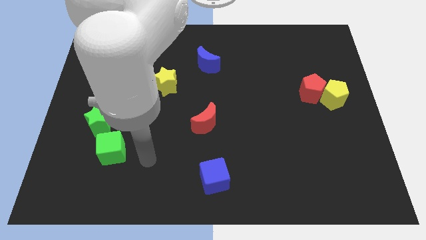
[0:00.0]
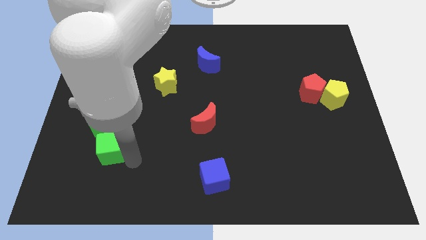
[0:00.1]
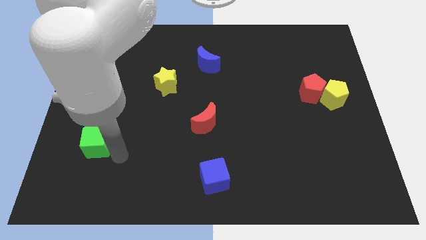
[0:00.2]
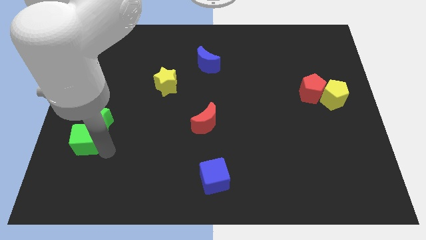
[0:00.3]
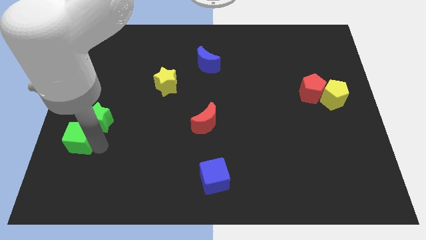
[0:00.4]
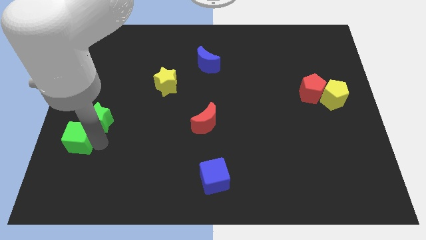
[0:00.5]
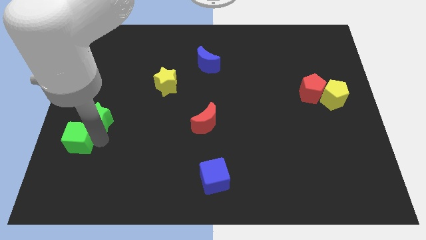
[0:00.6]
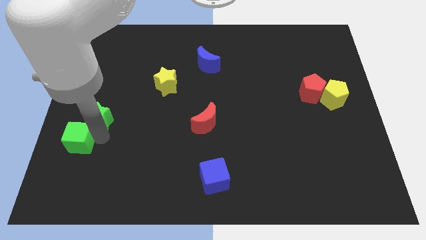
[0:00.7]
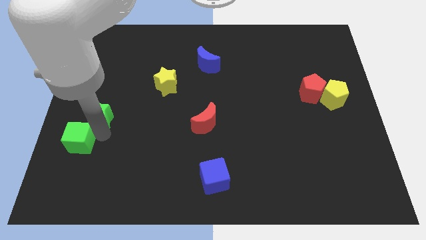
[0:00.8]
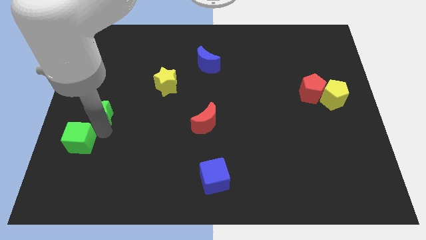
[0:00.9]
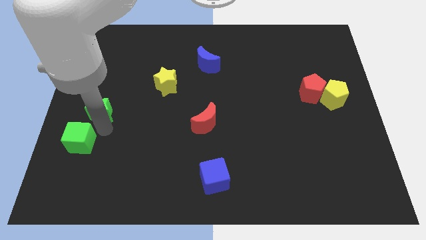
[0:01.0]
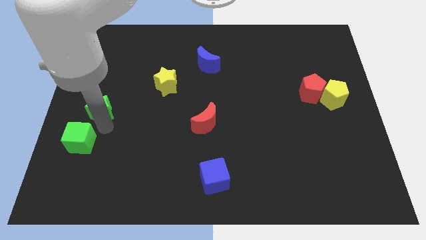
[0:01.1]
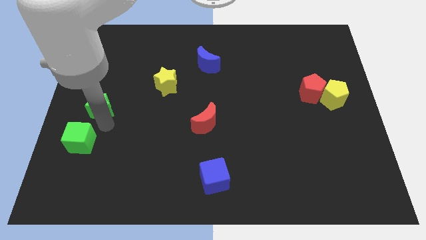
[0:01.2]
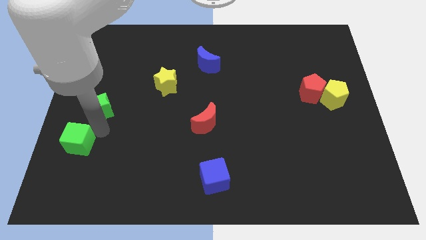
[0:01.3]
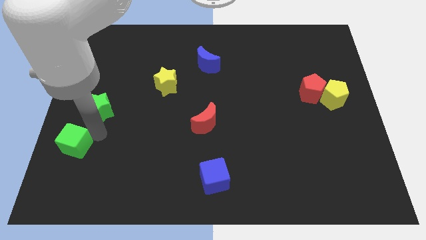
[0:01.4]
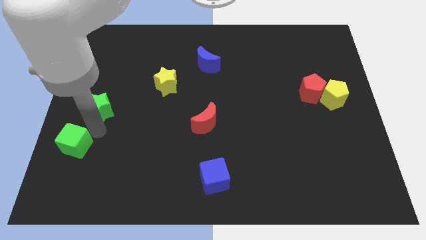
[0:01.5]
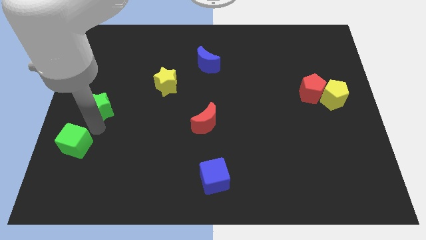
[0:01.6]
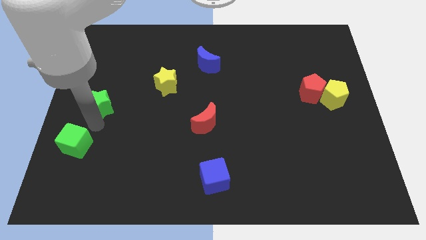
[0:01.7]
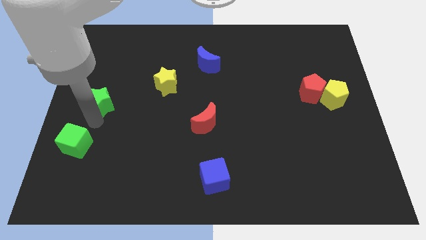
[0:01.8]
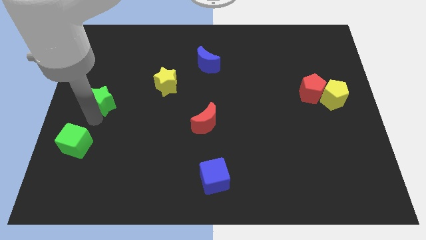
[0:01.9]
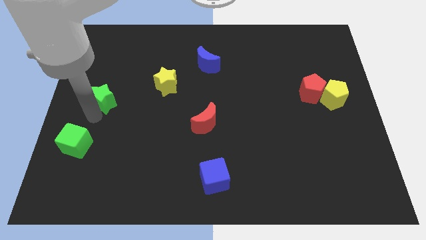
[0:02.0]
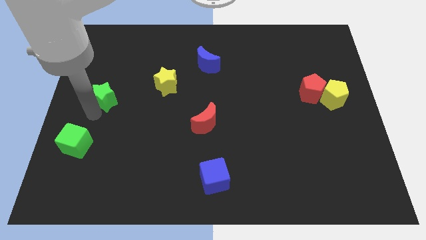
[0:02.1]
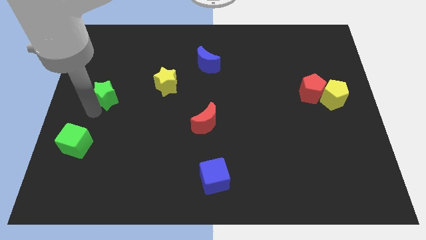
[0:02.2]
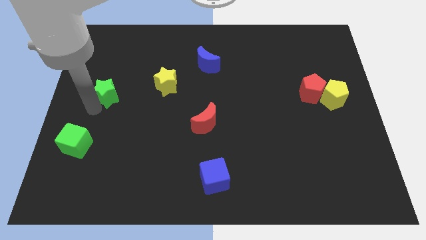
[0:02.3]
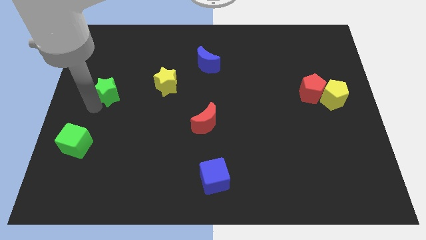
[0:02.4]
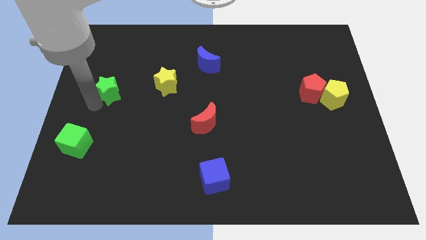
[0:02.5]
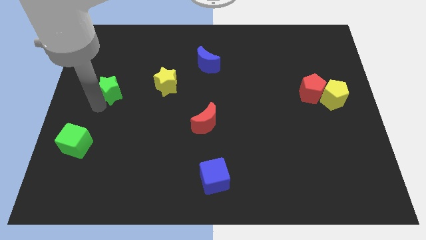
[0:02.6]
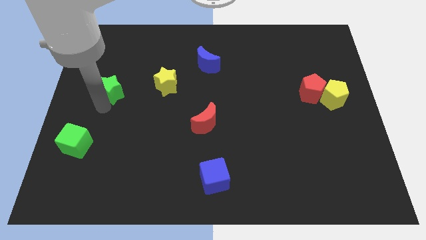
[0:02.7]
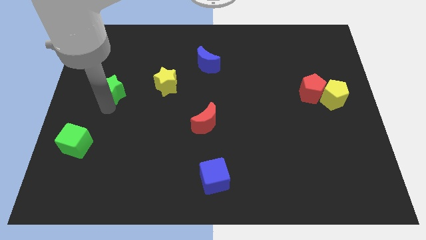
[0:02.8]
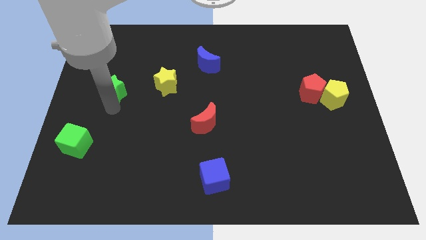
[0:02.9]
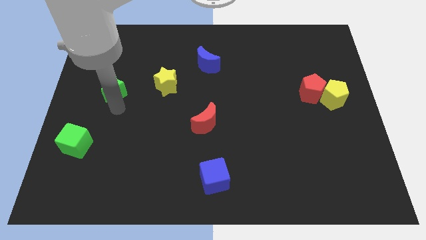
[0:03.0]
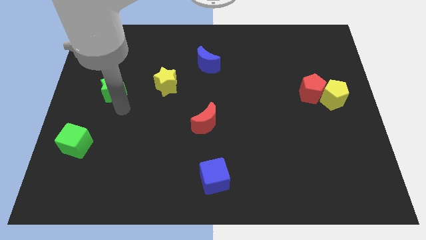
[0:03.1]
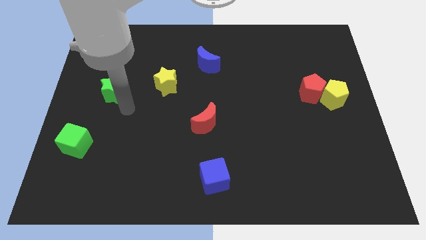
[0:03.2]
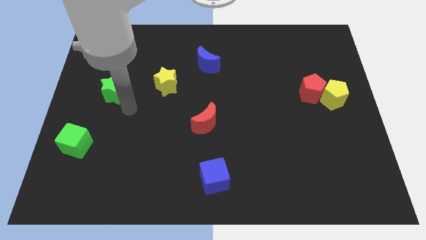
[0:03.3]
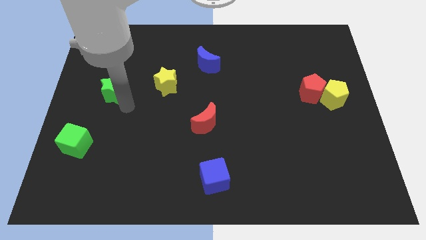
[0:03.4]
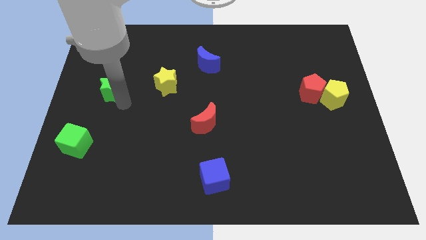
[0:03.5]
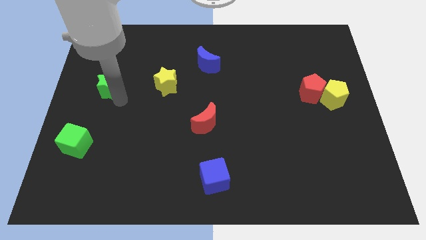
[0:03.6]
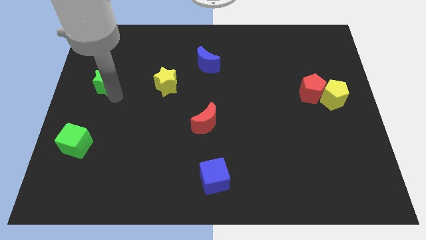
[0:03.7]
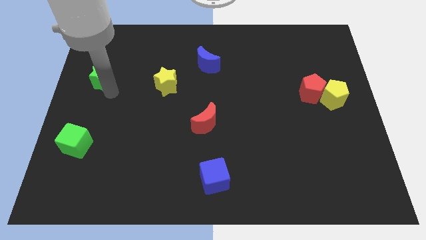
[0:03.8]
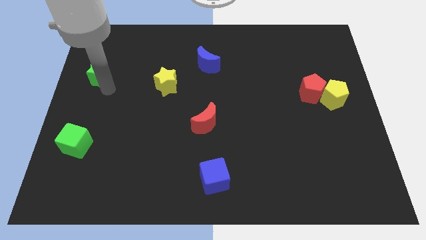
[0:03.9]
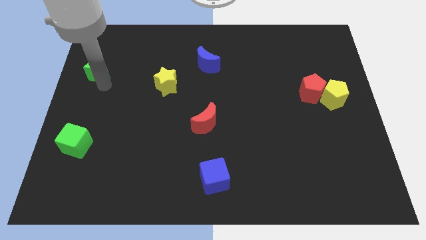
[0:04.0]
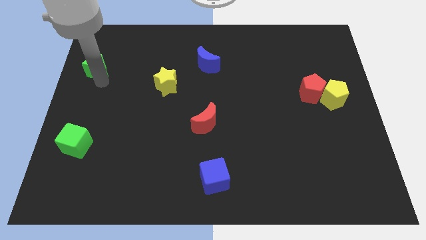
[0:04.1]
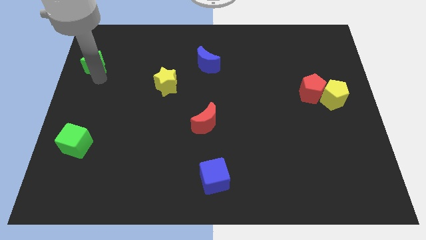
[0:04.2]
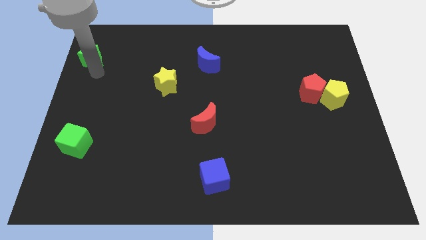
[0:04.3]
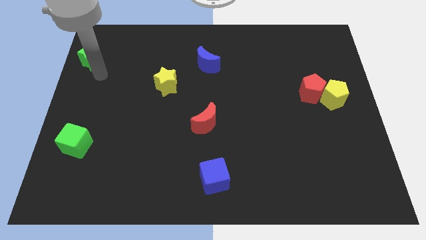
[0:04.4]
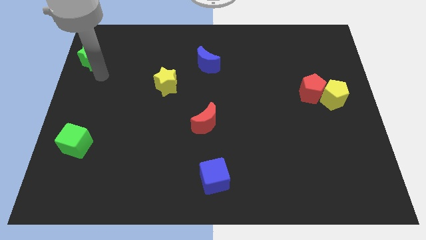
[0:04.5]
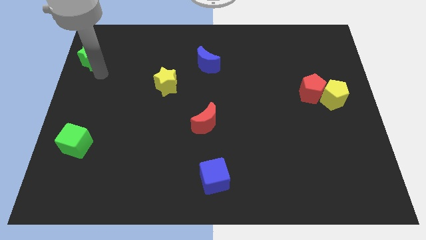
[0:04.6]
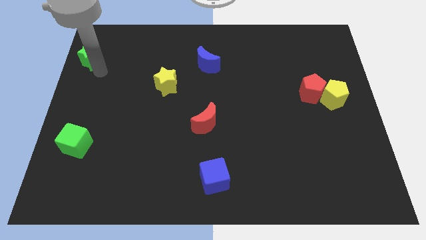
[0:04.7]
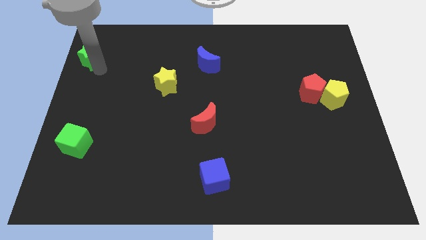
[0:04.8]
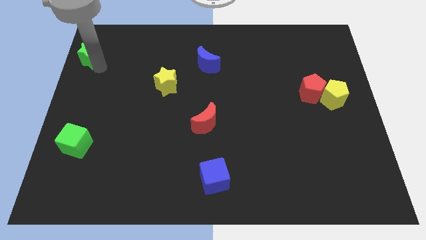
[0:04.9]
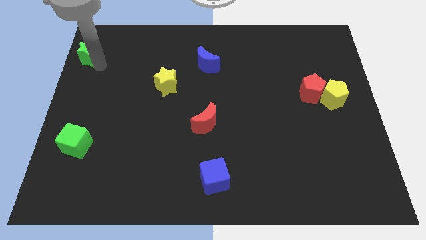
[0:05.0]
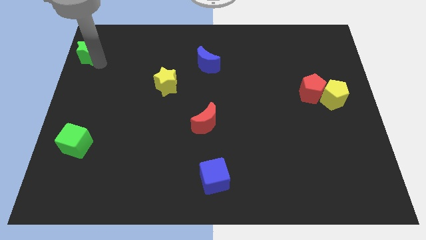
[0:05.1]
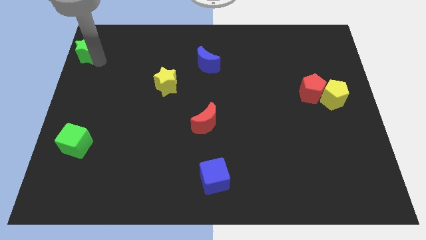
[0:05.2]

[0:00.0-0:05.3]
move the green star to the upper left corner

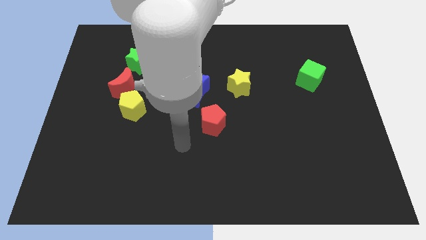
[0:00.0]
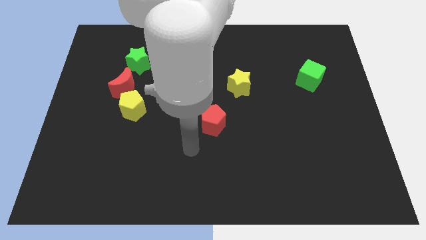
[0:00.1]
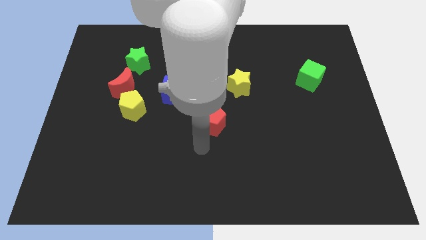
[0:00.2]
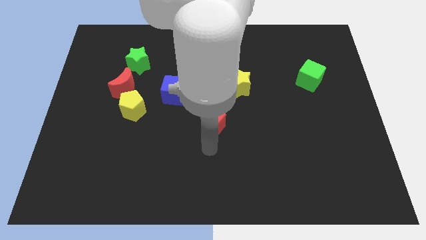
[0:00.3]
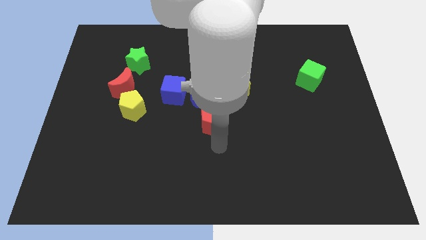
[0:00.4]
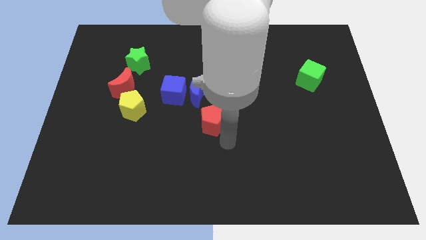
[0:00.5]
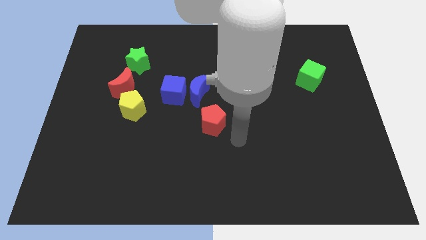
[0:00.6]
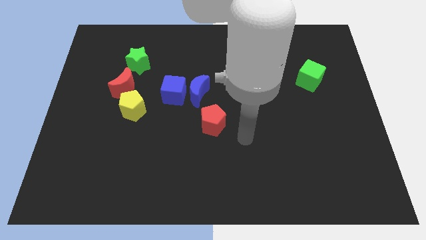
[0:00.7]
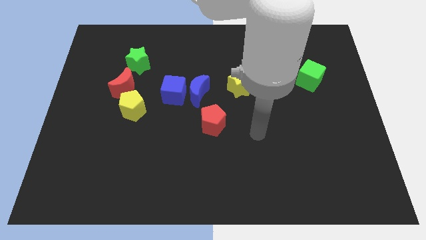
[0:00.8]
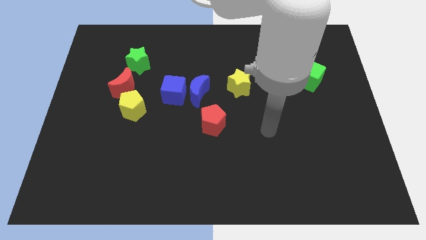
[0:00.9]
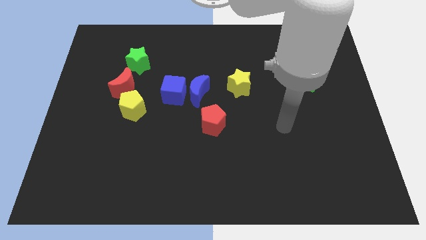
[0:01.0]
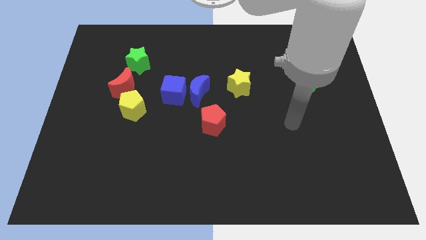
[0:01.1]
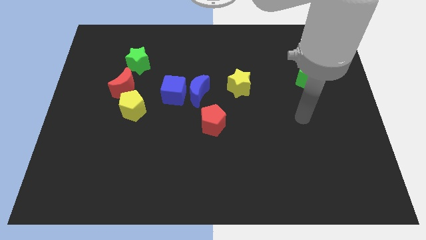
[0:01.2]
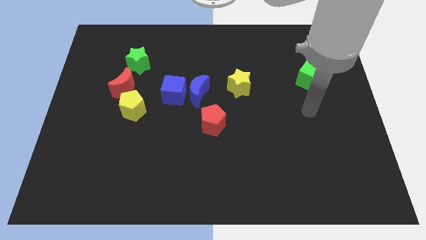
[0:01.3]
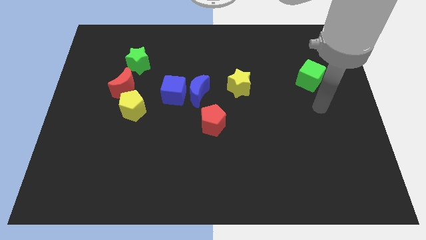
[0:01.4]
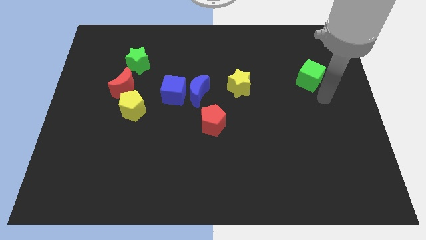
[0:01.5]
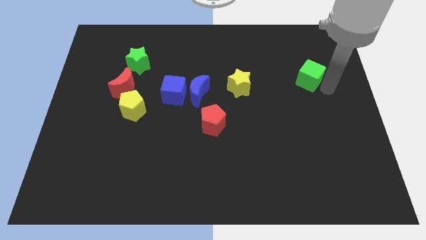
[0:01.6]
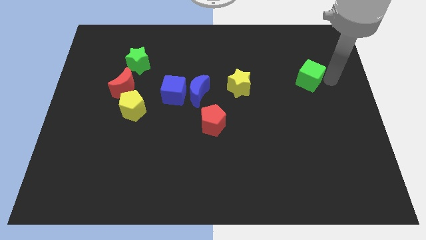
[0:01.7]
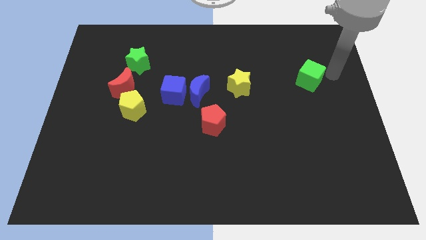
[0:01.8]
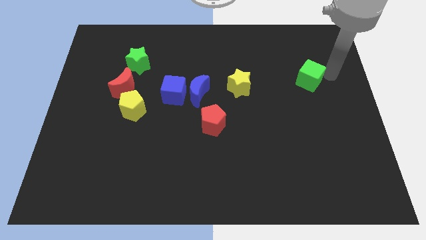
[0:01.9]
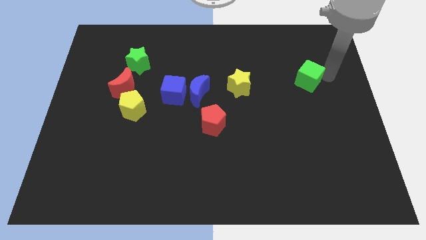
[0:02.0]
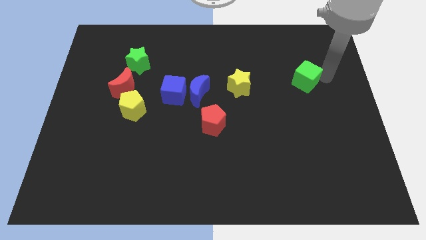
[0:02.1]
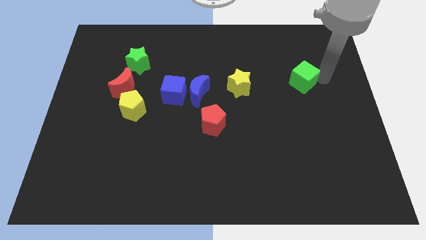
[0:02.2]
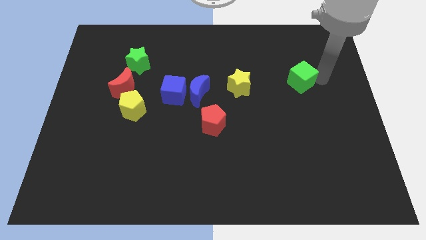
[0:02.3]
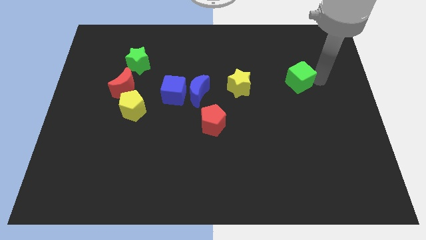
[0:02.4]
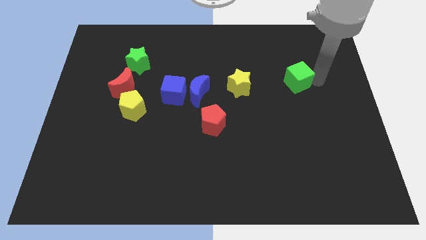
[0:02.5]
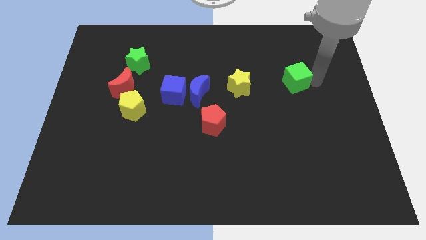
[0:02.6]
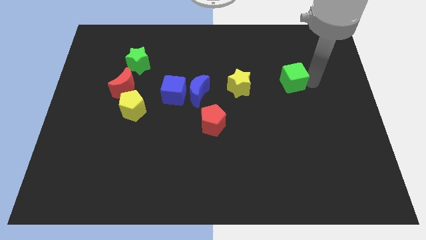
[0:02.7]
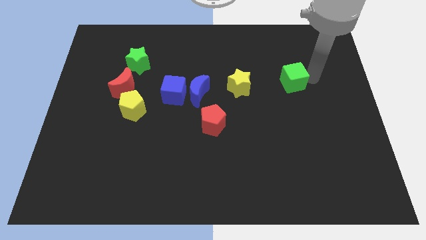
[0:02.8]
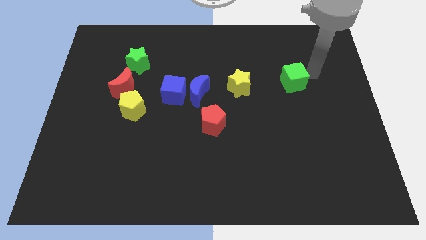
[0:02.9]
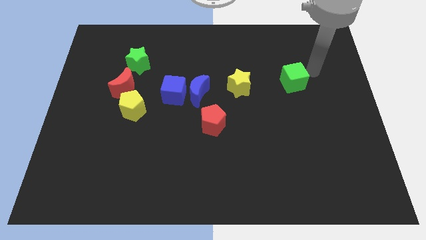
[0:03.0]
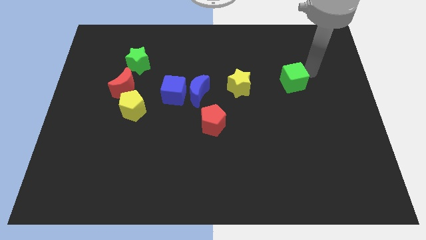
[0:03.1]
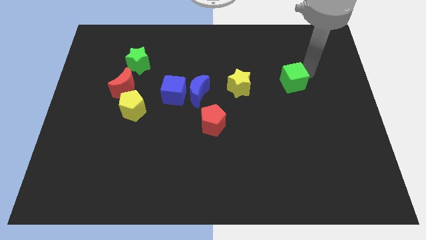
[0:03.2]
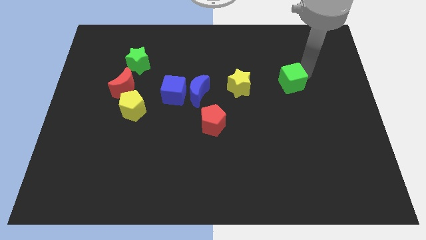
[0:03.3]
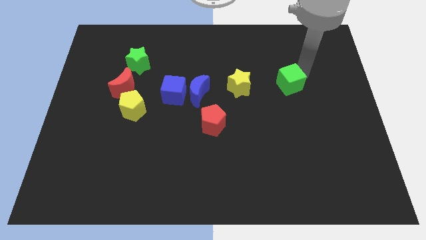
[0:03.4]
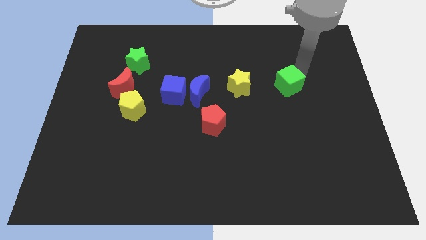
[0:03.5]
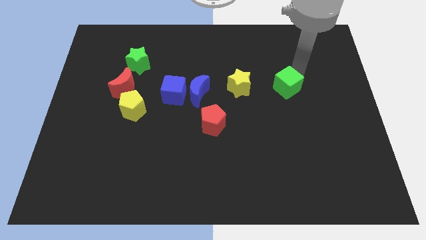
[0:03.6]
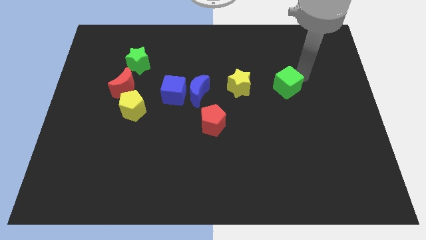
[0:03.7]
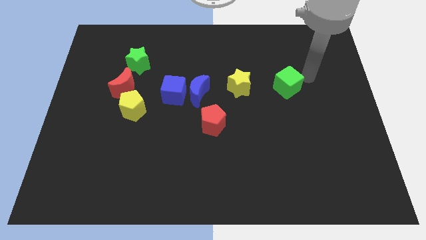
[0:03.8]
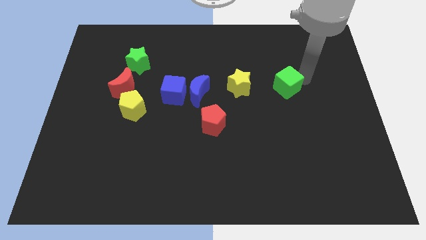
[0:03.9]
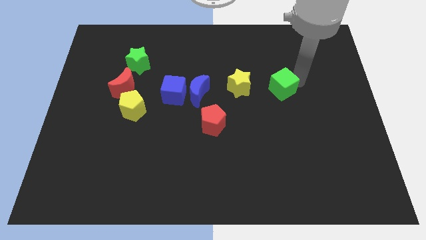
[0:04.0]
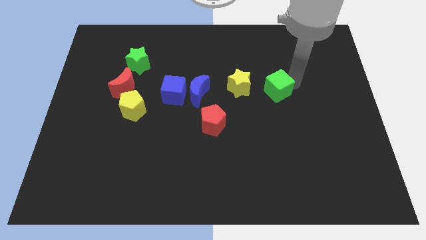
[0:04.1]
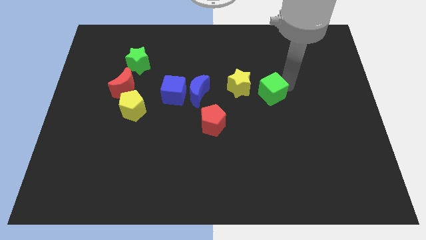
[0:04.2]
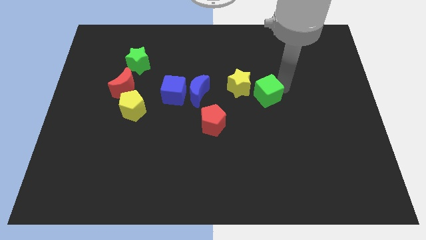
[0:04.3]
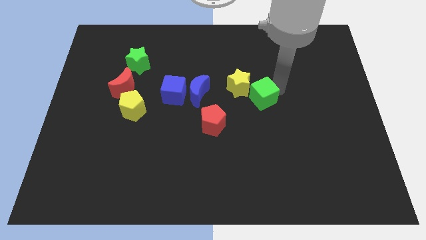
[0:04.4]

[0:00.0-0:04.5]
push the green cube to the center
